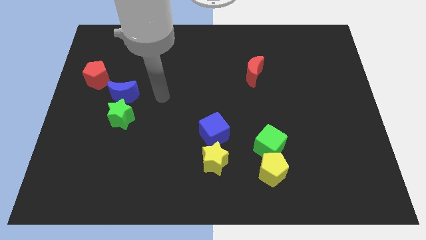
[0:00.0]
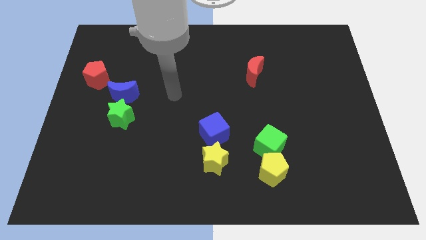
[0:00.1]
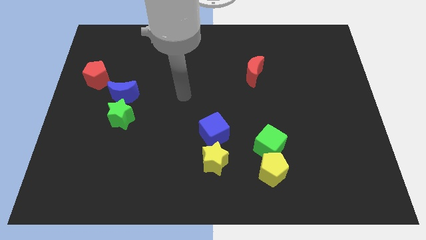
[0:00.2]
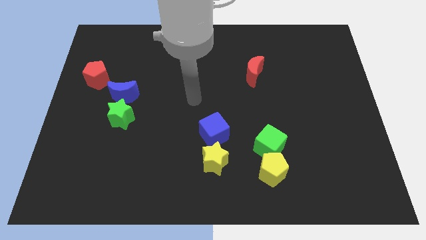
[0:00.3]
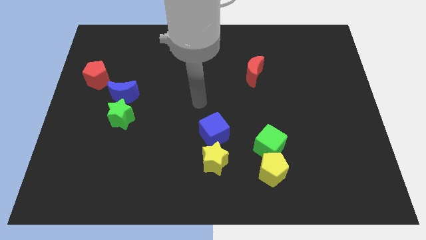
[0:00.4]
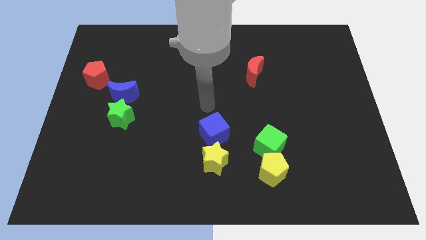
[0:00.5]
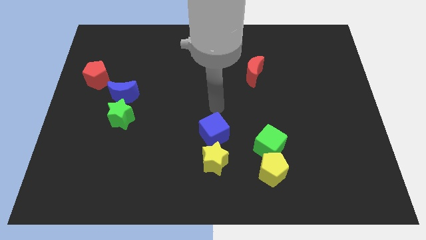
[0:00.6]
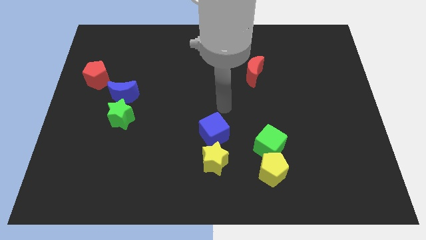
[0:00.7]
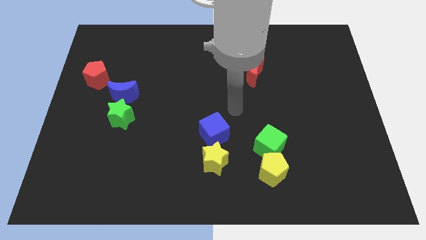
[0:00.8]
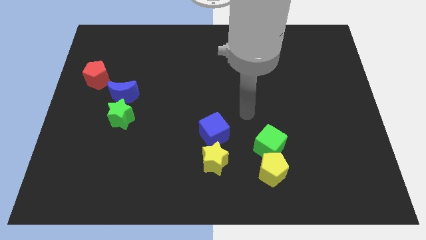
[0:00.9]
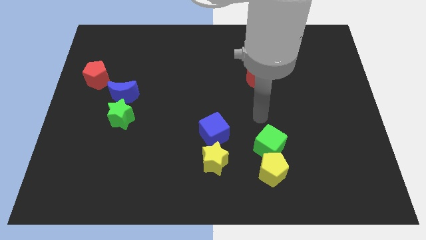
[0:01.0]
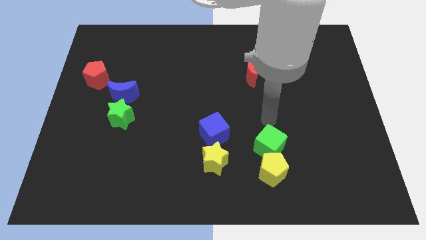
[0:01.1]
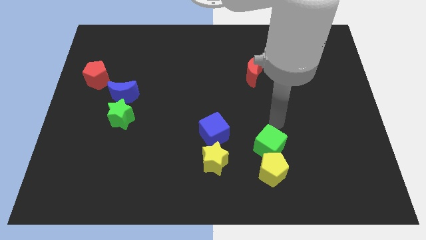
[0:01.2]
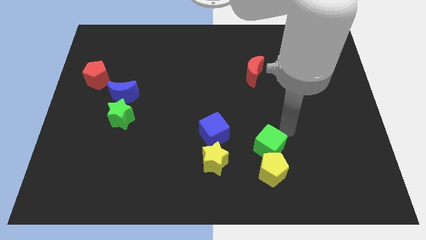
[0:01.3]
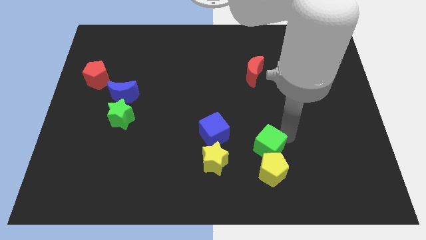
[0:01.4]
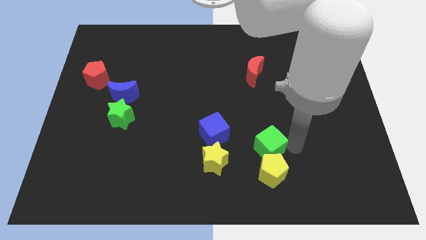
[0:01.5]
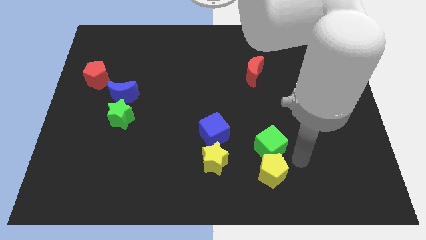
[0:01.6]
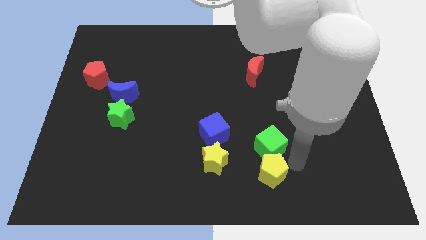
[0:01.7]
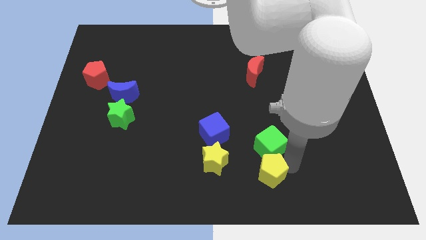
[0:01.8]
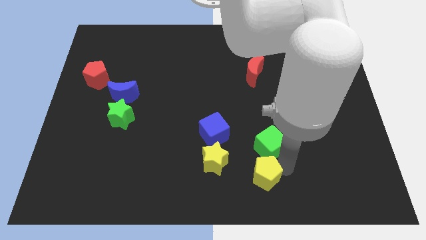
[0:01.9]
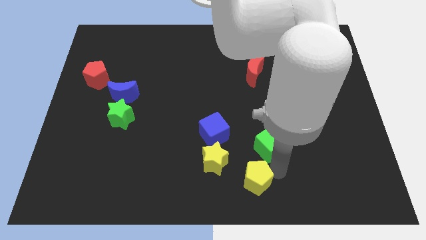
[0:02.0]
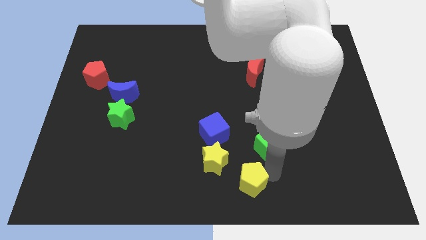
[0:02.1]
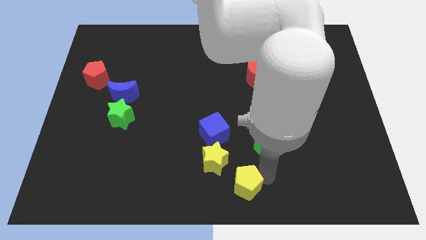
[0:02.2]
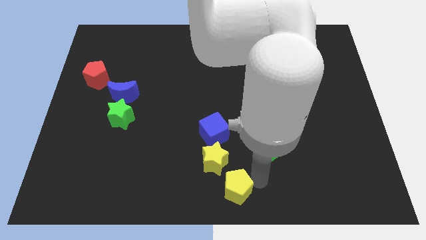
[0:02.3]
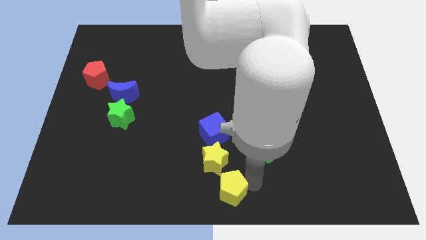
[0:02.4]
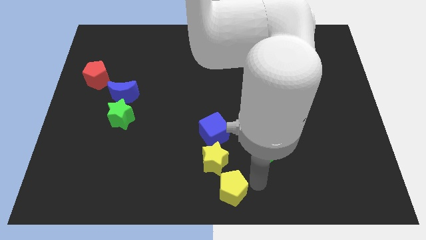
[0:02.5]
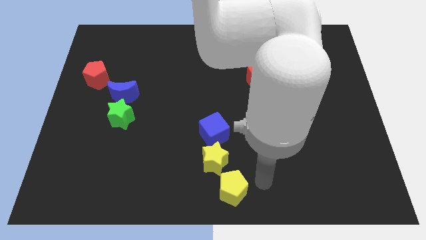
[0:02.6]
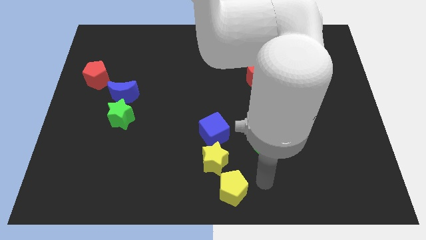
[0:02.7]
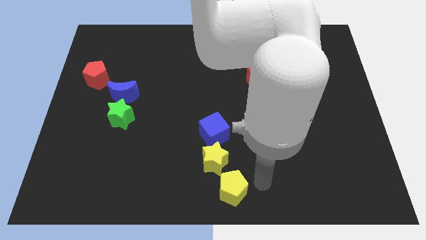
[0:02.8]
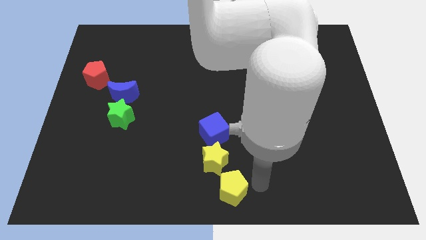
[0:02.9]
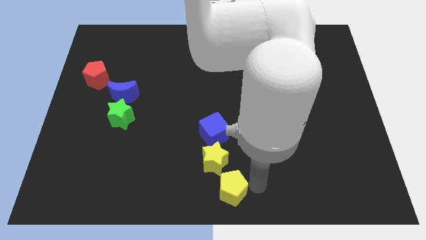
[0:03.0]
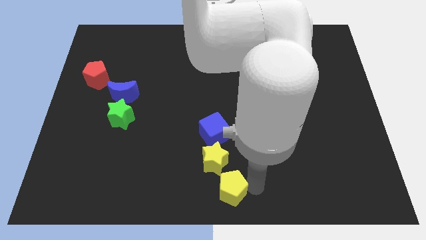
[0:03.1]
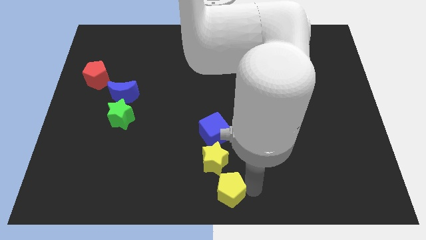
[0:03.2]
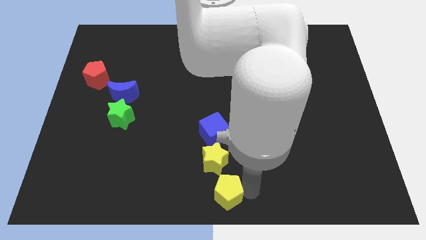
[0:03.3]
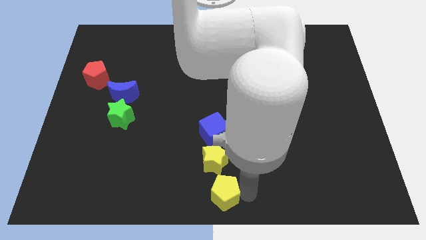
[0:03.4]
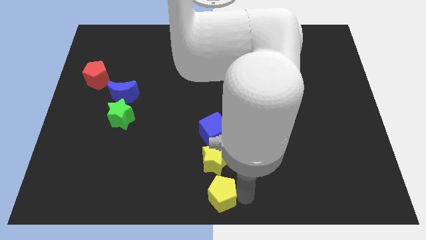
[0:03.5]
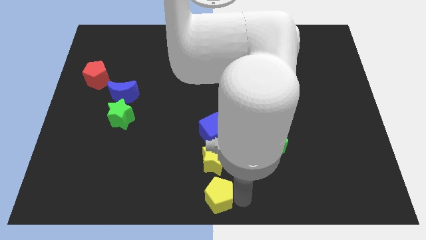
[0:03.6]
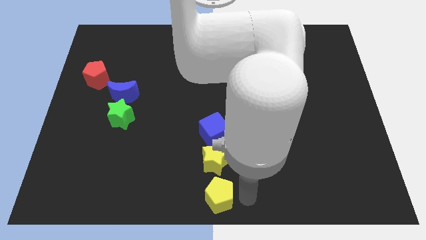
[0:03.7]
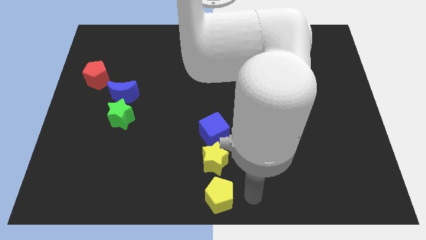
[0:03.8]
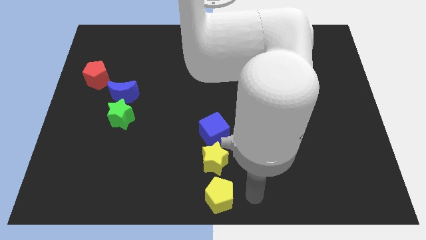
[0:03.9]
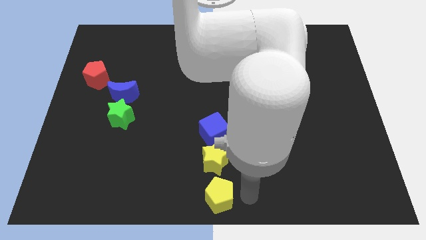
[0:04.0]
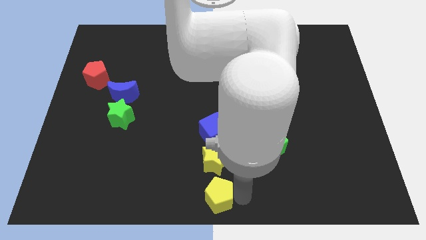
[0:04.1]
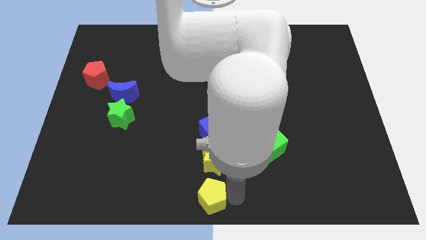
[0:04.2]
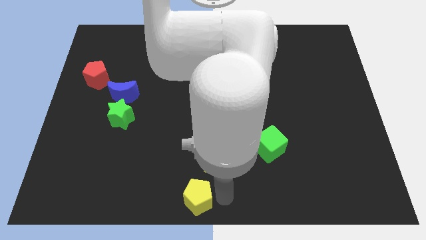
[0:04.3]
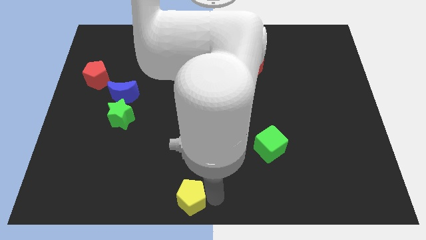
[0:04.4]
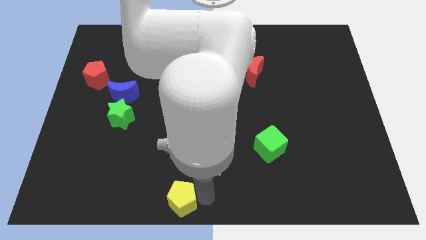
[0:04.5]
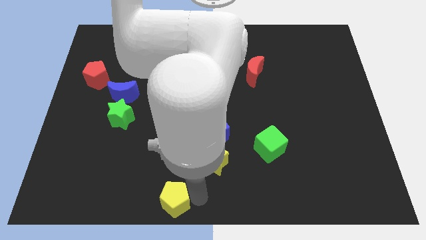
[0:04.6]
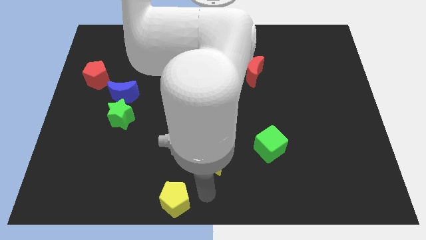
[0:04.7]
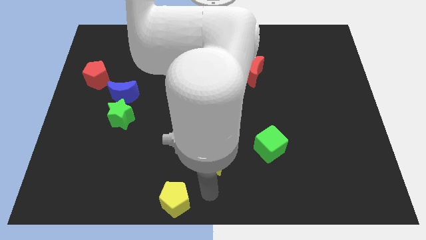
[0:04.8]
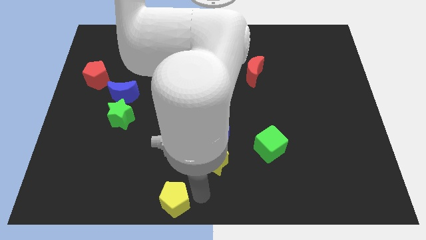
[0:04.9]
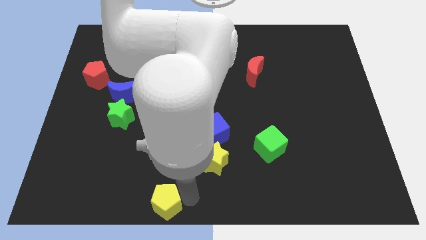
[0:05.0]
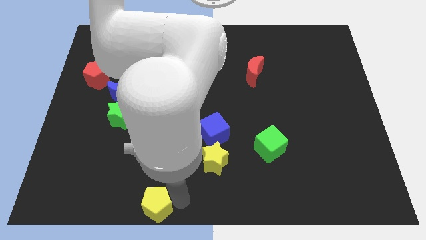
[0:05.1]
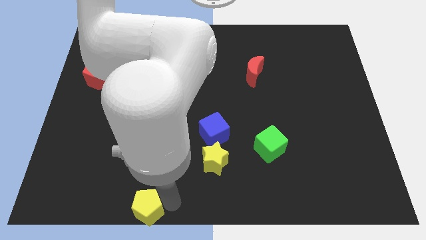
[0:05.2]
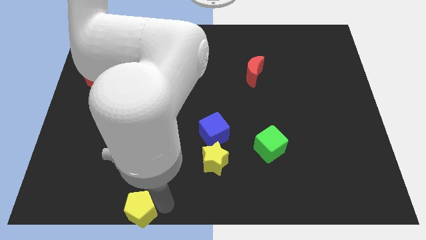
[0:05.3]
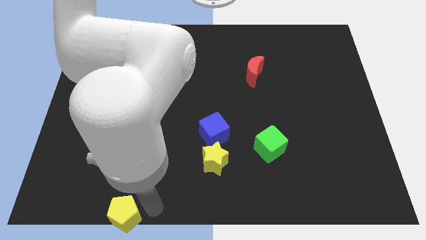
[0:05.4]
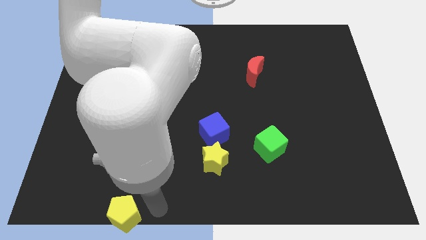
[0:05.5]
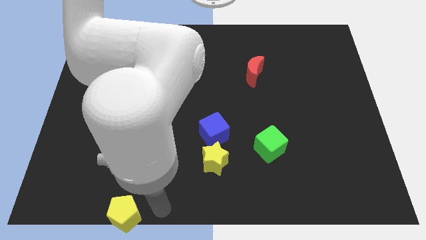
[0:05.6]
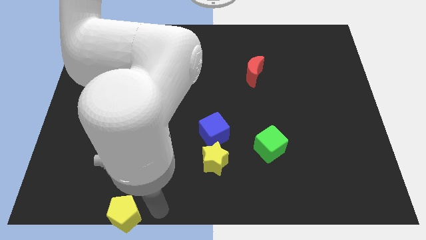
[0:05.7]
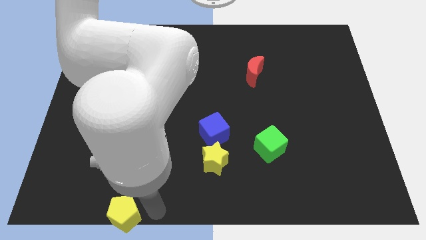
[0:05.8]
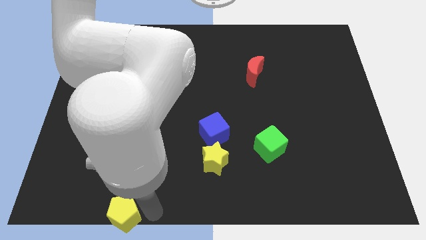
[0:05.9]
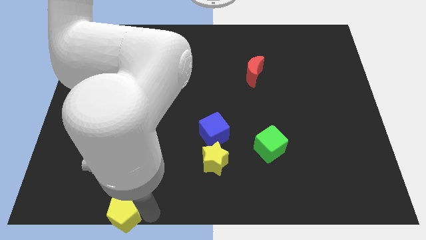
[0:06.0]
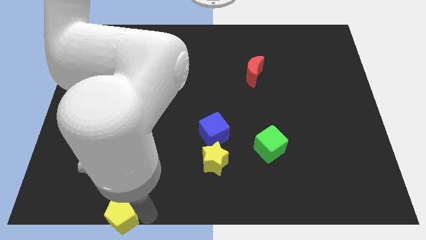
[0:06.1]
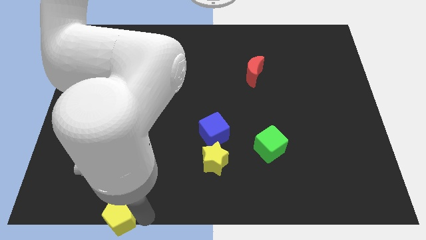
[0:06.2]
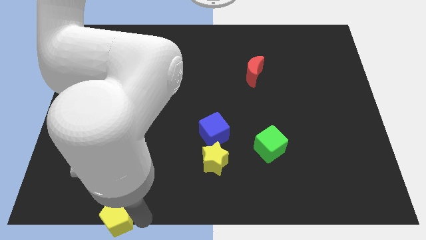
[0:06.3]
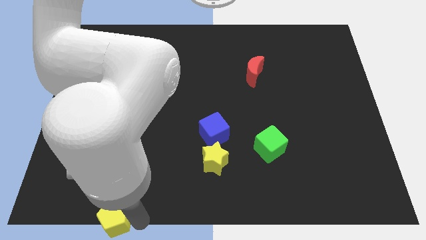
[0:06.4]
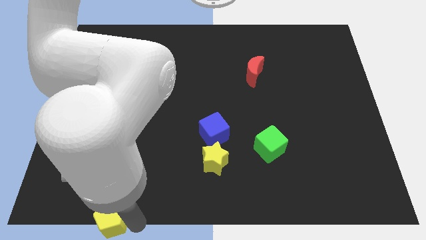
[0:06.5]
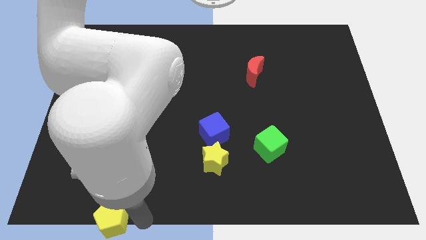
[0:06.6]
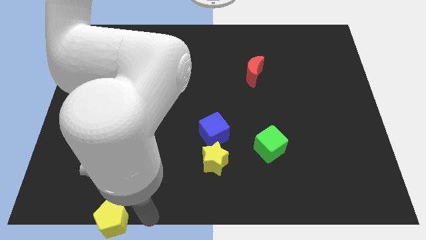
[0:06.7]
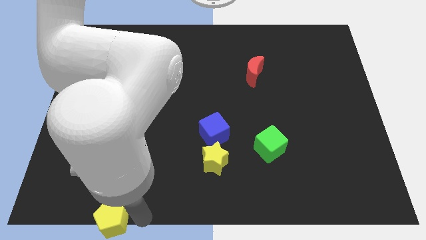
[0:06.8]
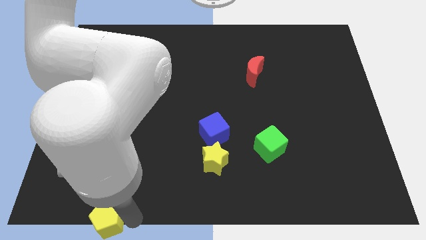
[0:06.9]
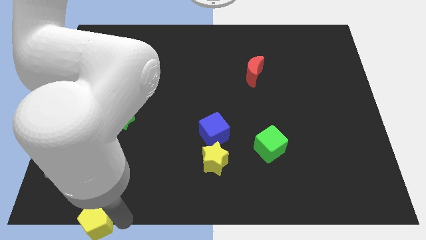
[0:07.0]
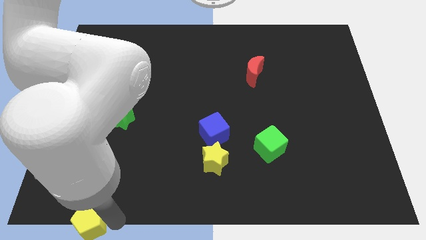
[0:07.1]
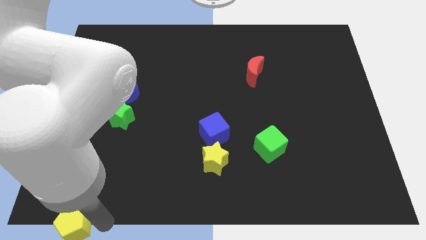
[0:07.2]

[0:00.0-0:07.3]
push the yellow pentagon to the bottom left of the board

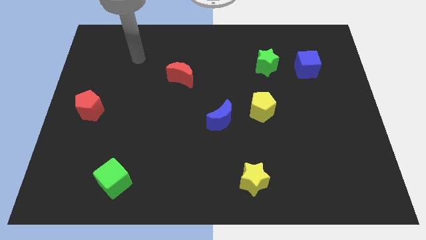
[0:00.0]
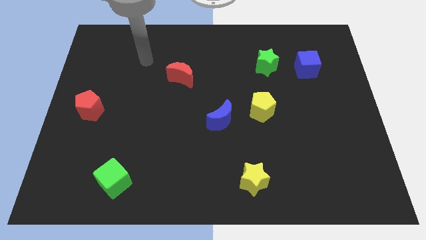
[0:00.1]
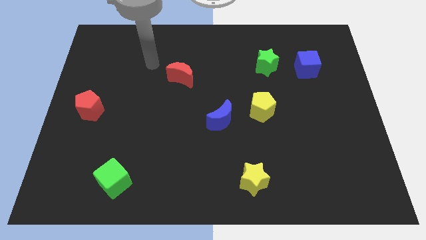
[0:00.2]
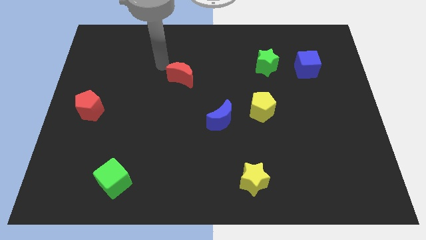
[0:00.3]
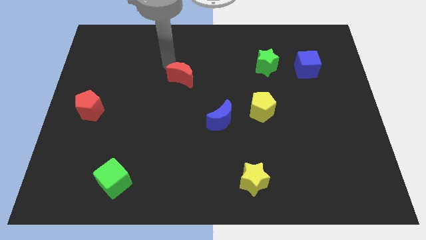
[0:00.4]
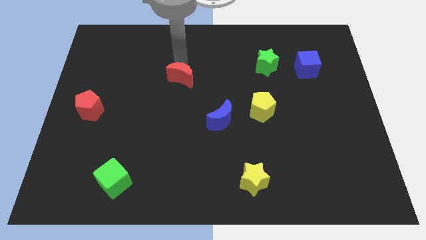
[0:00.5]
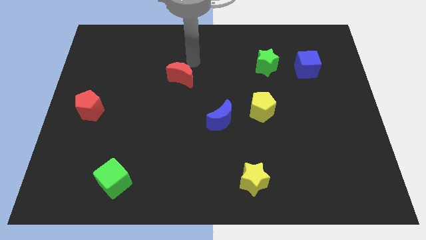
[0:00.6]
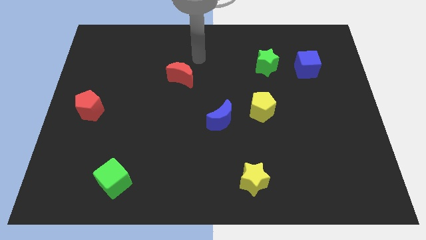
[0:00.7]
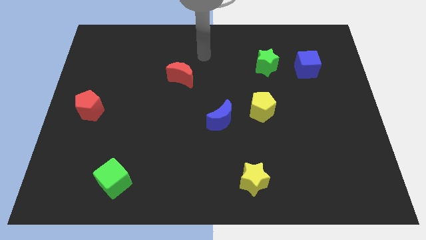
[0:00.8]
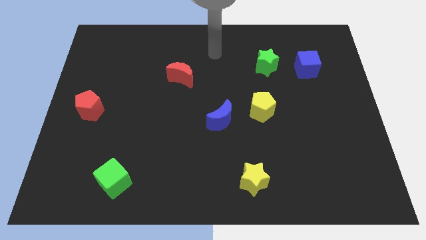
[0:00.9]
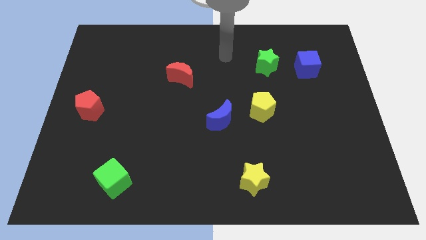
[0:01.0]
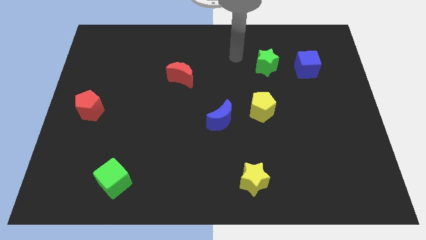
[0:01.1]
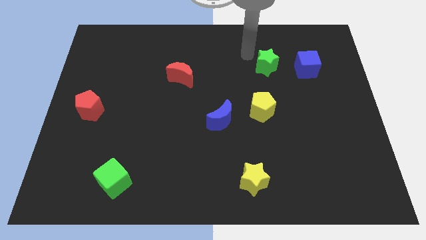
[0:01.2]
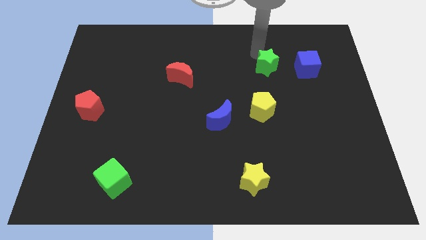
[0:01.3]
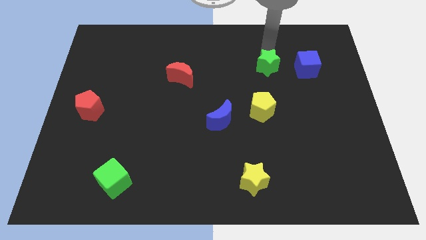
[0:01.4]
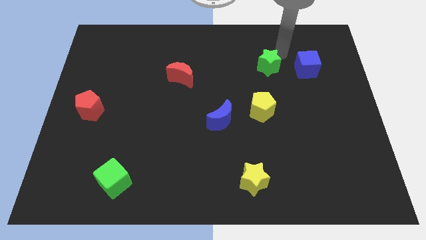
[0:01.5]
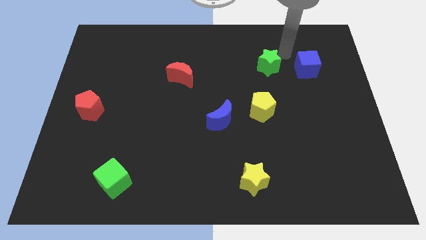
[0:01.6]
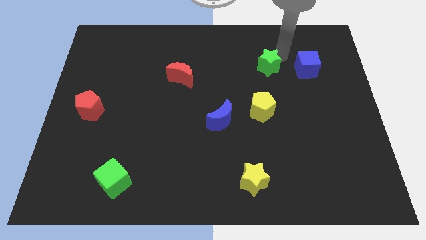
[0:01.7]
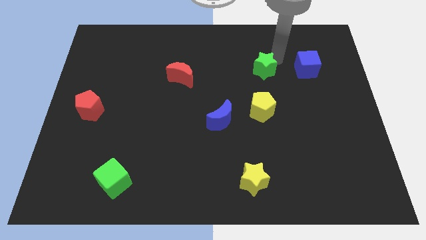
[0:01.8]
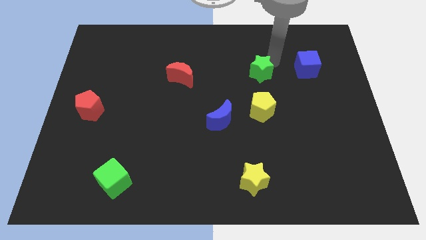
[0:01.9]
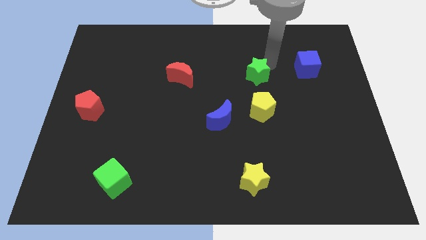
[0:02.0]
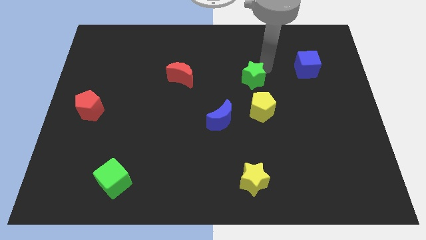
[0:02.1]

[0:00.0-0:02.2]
put the green star to the center
